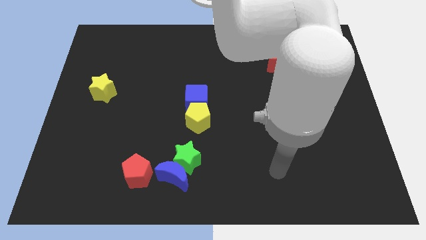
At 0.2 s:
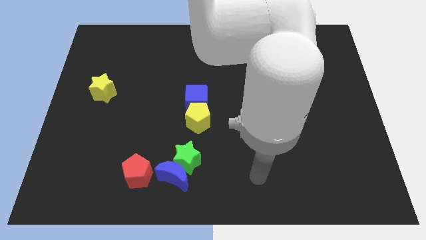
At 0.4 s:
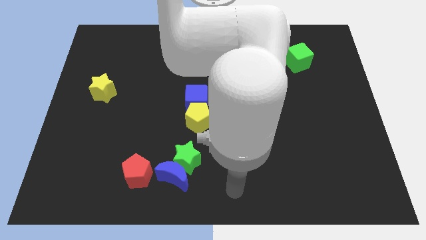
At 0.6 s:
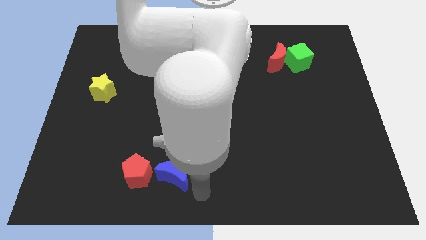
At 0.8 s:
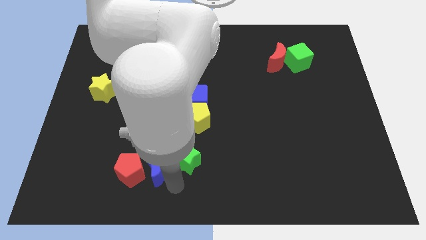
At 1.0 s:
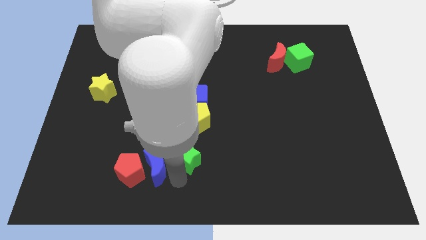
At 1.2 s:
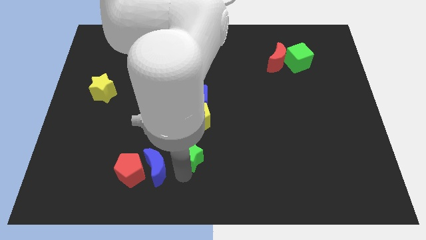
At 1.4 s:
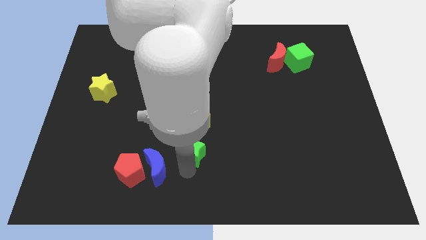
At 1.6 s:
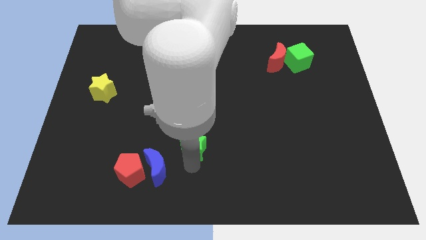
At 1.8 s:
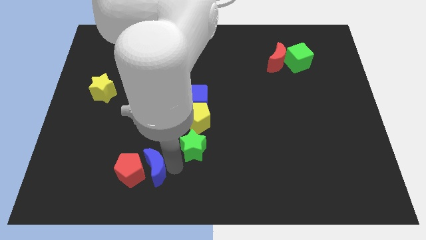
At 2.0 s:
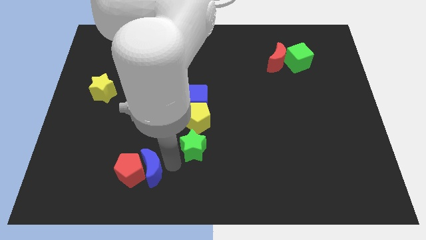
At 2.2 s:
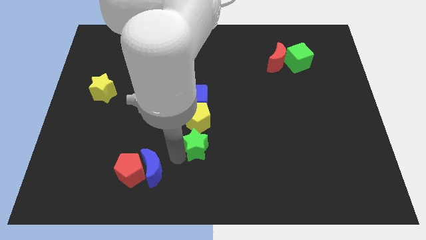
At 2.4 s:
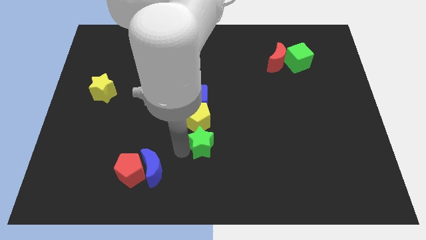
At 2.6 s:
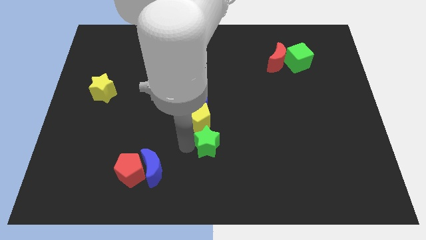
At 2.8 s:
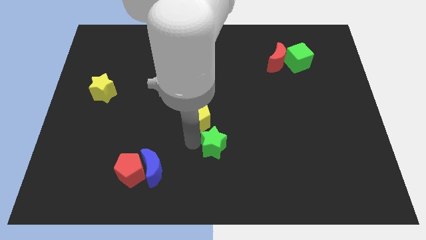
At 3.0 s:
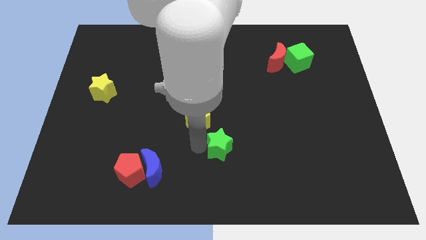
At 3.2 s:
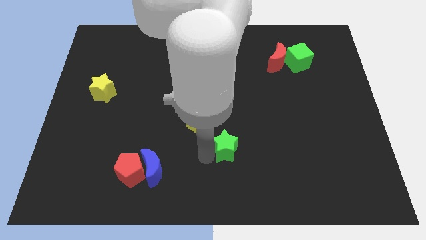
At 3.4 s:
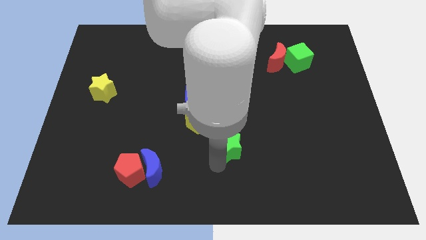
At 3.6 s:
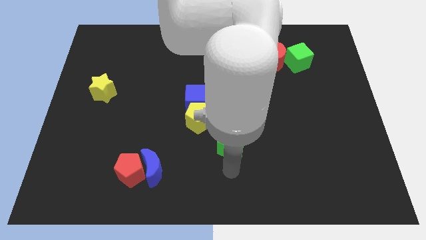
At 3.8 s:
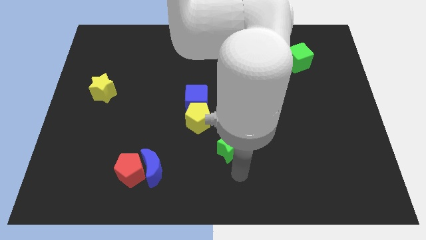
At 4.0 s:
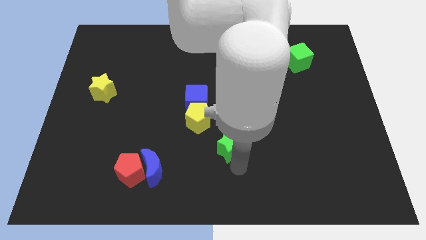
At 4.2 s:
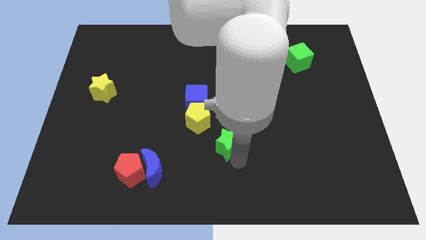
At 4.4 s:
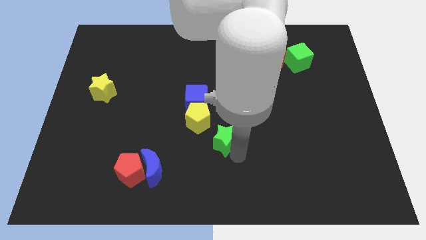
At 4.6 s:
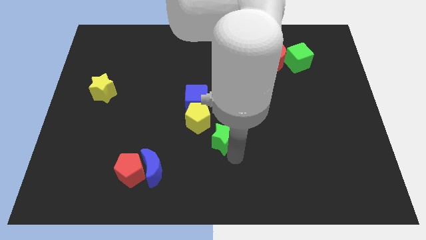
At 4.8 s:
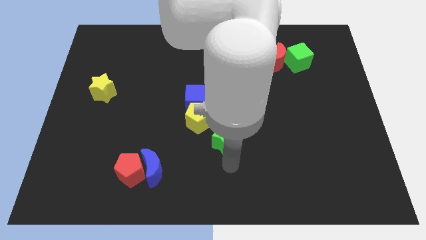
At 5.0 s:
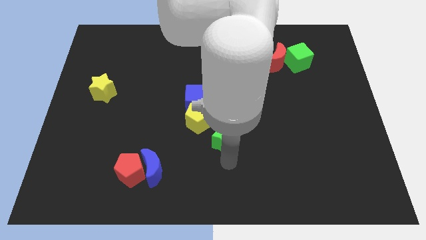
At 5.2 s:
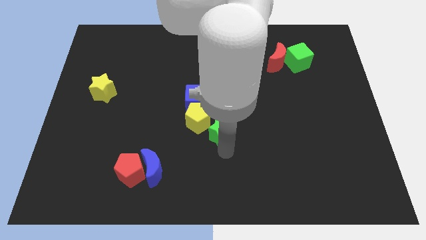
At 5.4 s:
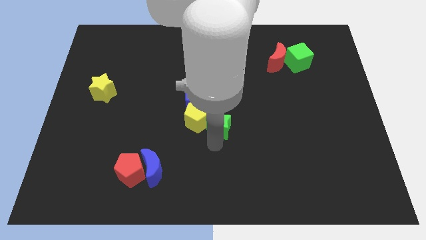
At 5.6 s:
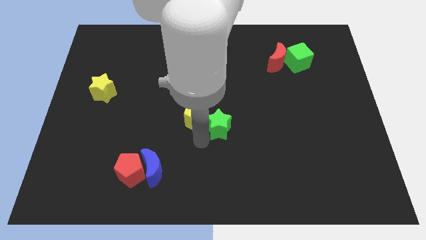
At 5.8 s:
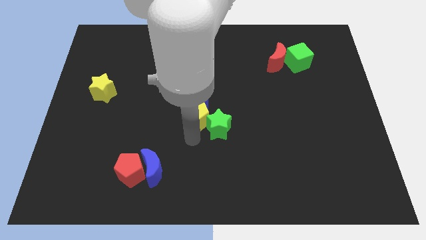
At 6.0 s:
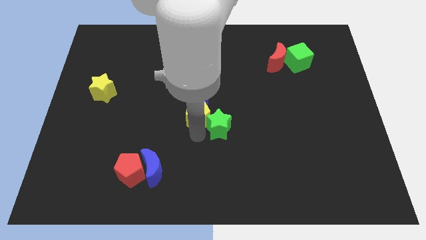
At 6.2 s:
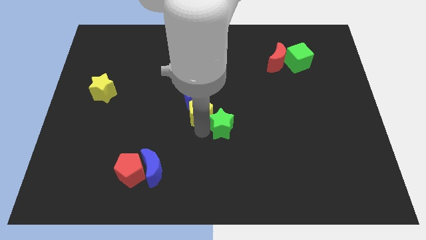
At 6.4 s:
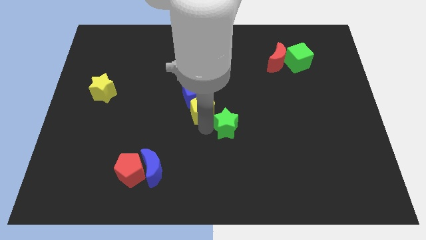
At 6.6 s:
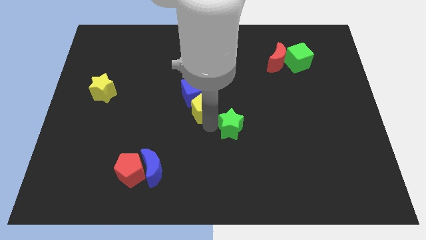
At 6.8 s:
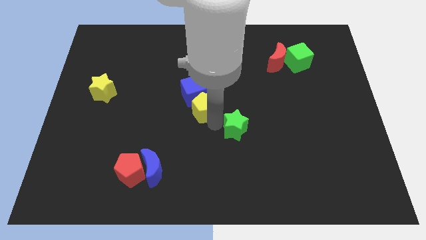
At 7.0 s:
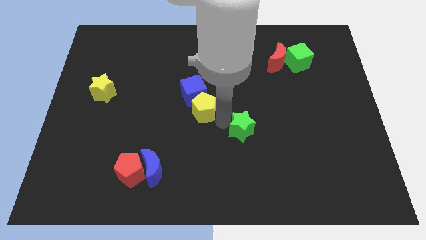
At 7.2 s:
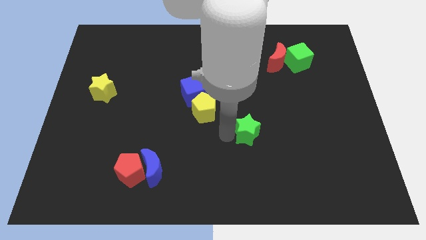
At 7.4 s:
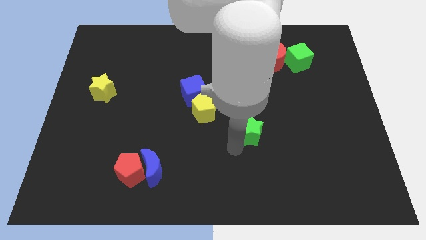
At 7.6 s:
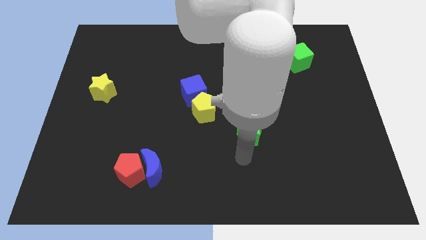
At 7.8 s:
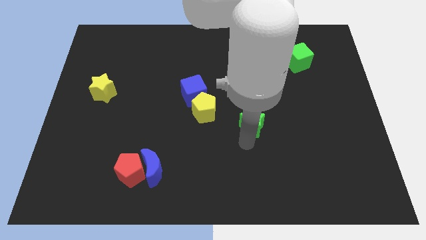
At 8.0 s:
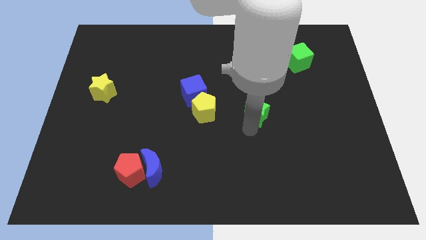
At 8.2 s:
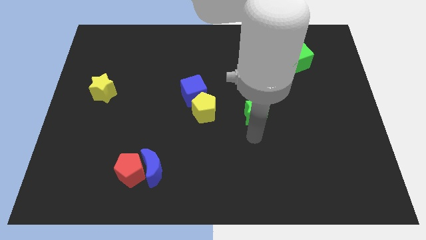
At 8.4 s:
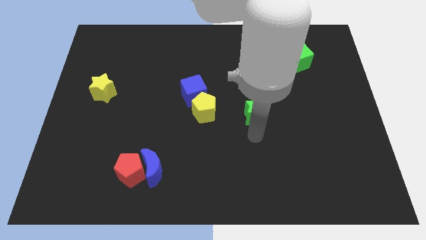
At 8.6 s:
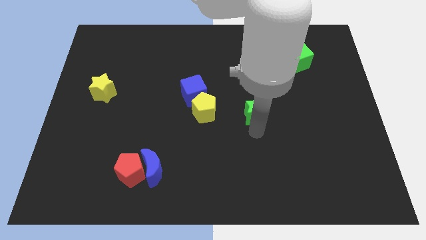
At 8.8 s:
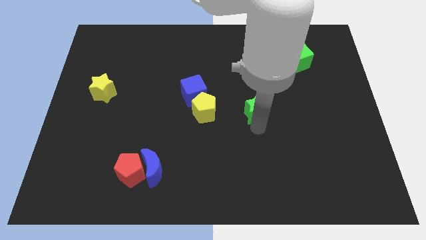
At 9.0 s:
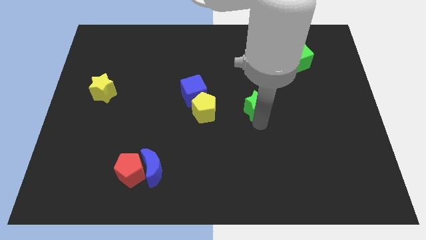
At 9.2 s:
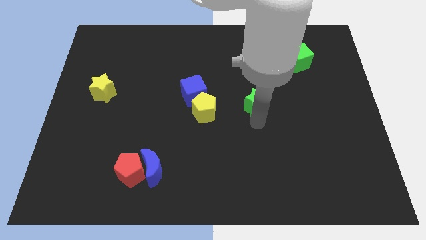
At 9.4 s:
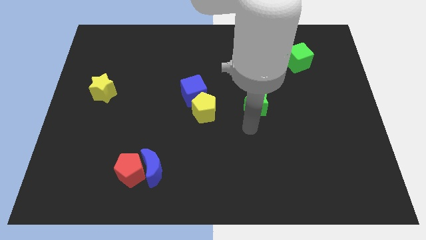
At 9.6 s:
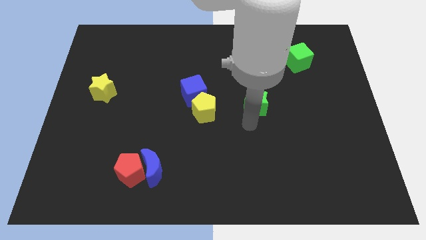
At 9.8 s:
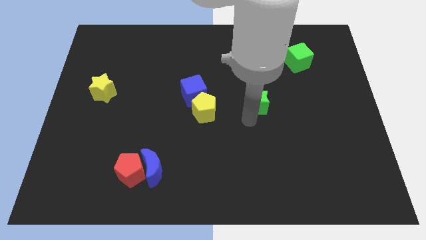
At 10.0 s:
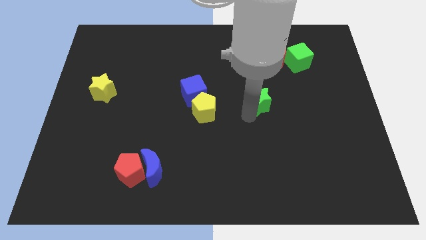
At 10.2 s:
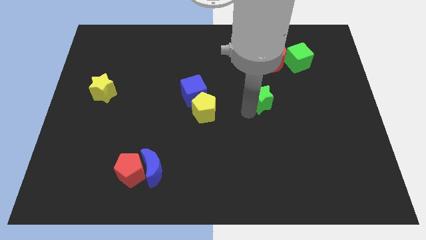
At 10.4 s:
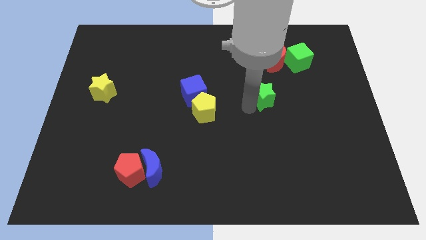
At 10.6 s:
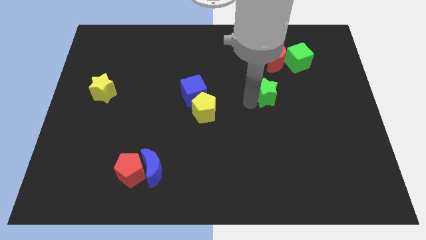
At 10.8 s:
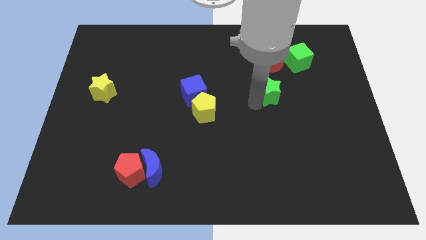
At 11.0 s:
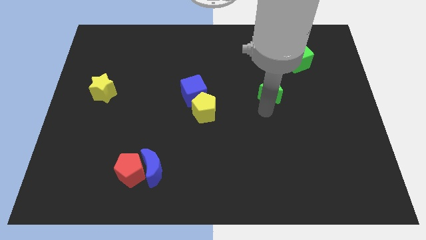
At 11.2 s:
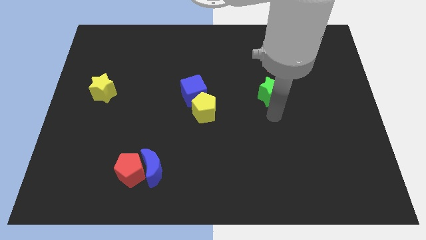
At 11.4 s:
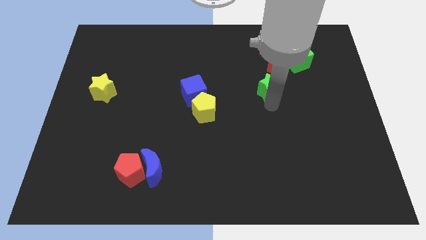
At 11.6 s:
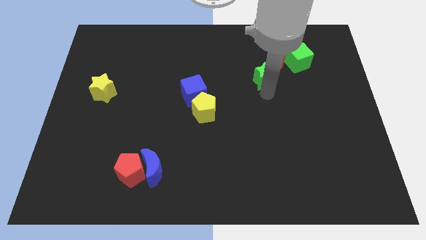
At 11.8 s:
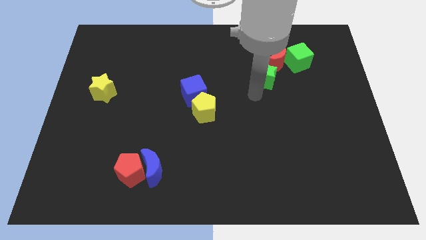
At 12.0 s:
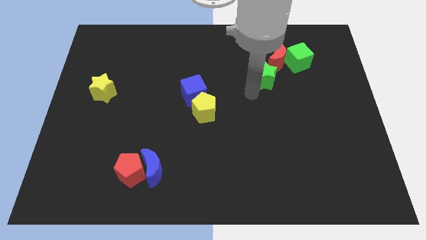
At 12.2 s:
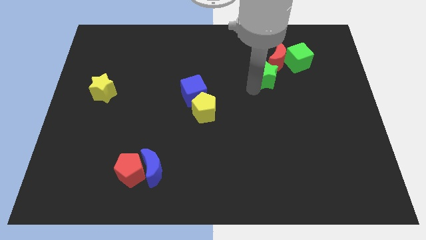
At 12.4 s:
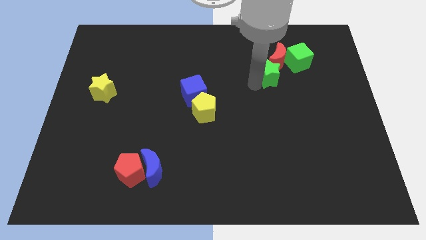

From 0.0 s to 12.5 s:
push the green star next to the red moon

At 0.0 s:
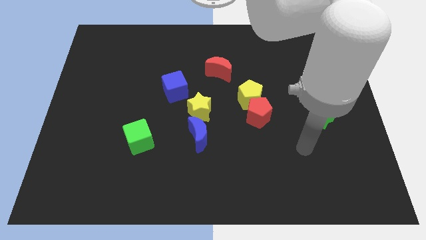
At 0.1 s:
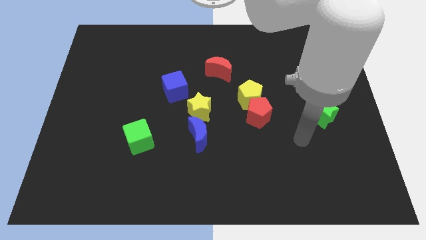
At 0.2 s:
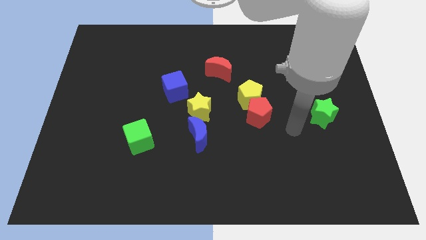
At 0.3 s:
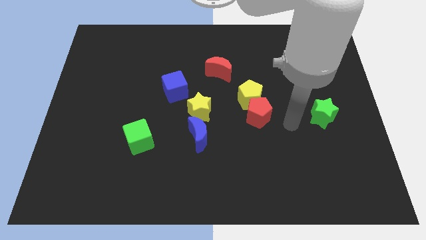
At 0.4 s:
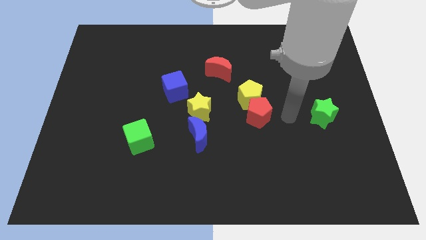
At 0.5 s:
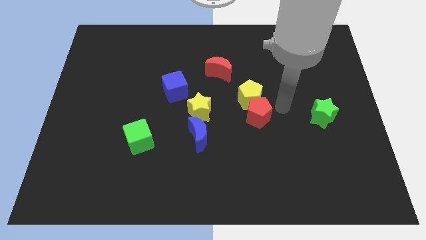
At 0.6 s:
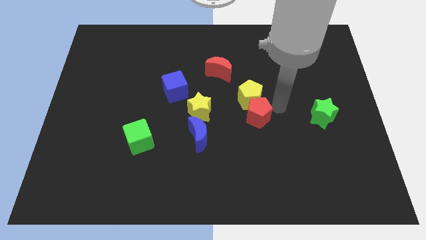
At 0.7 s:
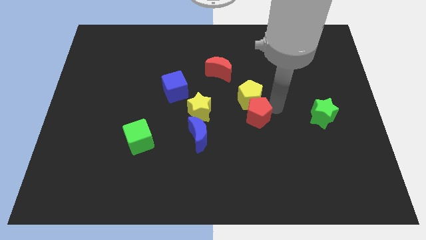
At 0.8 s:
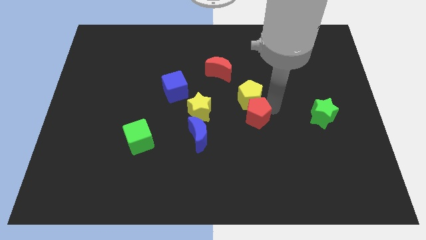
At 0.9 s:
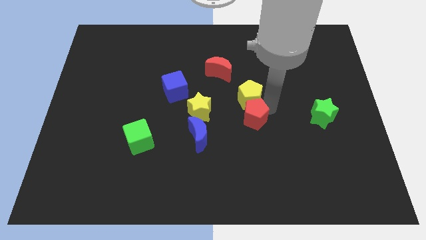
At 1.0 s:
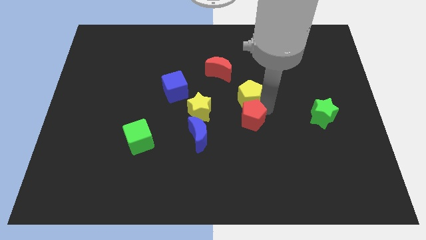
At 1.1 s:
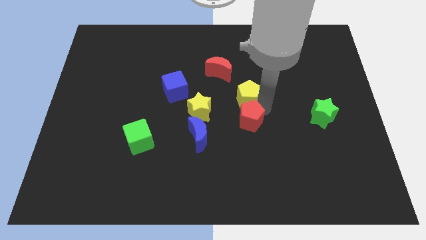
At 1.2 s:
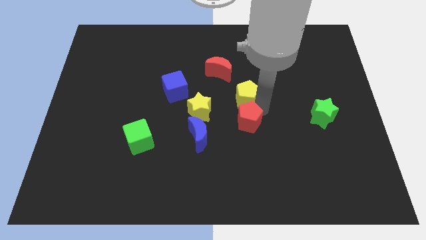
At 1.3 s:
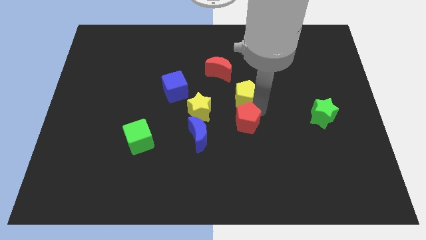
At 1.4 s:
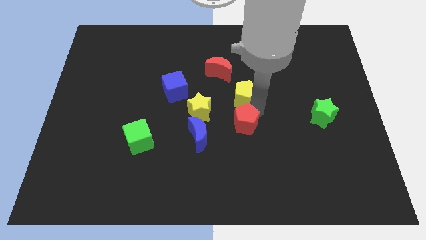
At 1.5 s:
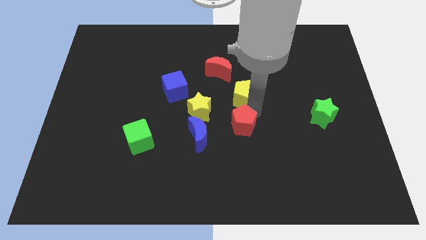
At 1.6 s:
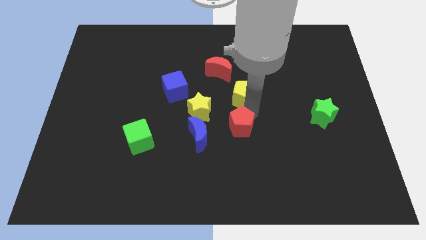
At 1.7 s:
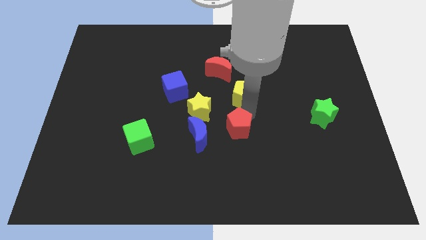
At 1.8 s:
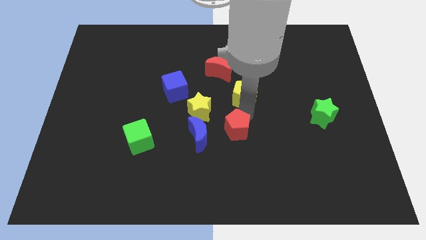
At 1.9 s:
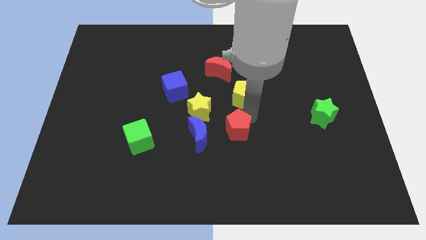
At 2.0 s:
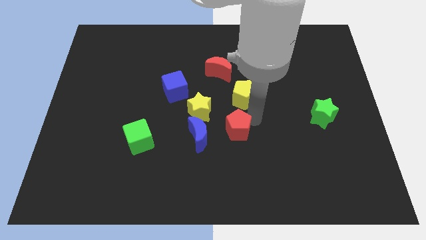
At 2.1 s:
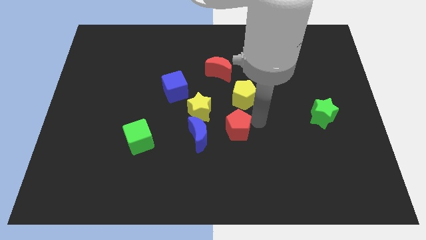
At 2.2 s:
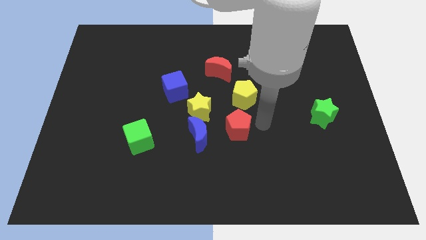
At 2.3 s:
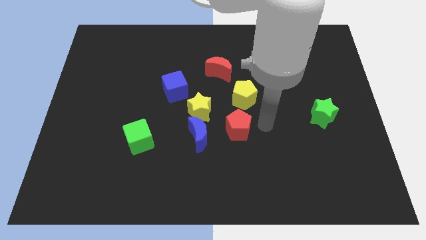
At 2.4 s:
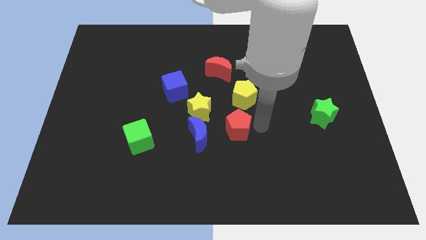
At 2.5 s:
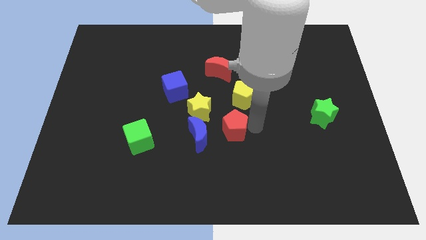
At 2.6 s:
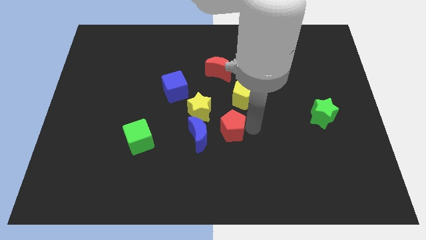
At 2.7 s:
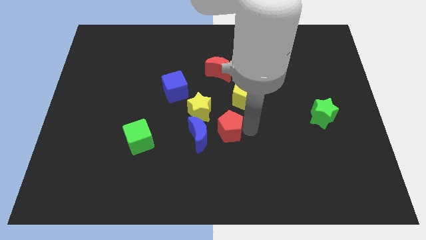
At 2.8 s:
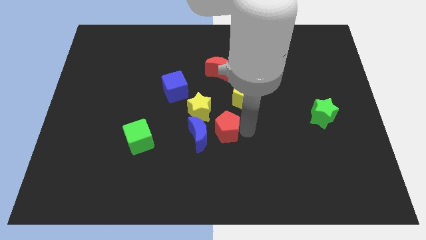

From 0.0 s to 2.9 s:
slide the red pentagon to the blue moon
